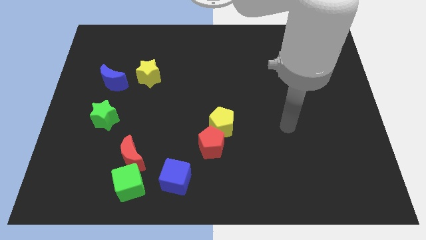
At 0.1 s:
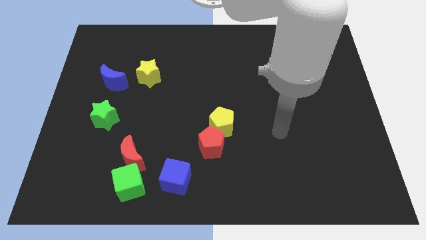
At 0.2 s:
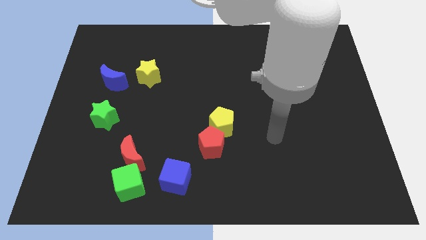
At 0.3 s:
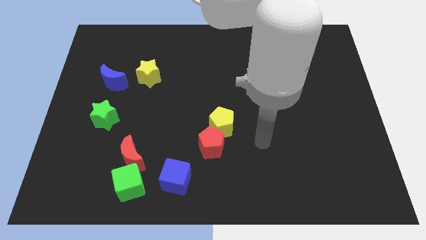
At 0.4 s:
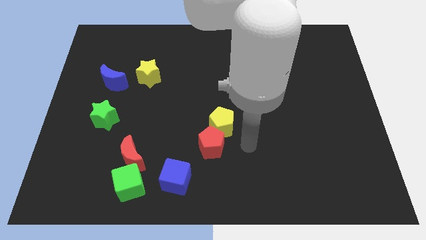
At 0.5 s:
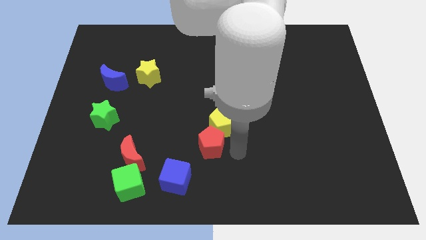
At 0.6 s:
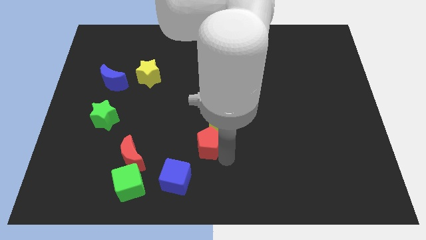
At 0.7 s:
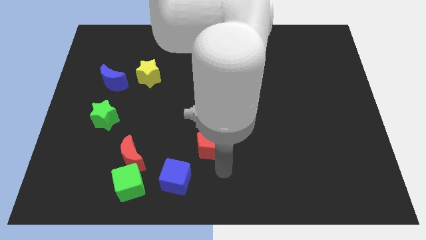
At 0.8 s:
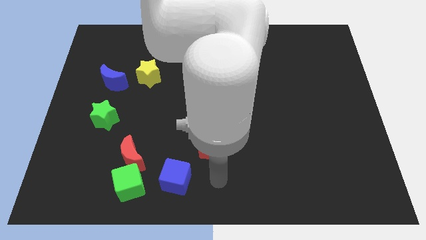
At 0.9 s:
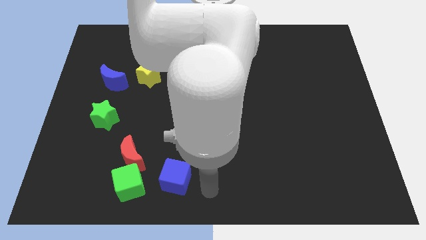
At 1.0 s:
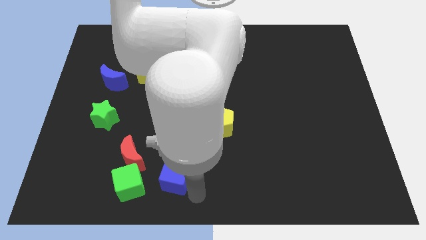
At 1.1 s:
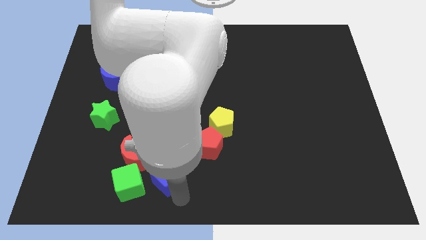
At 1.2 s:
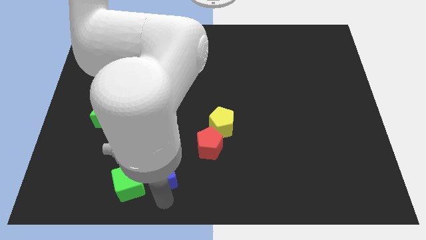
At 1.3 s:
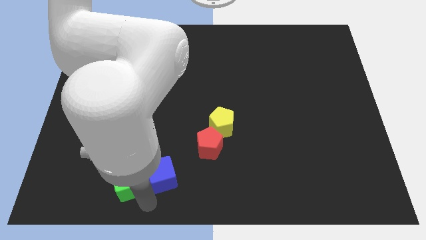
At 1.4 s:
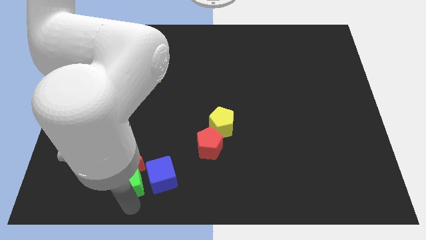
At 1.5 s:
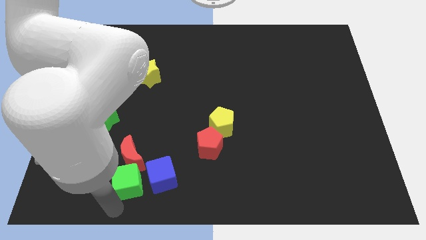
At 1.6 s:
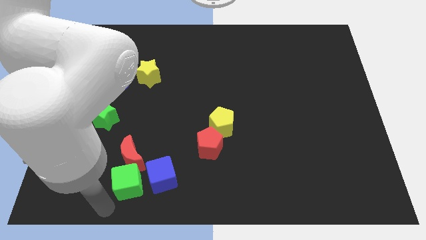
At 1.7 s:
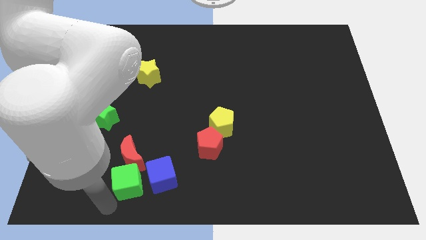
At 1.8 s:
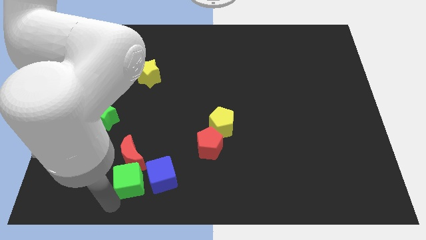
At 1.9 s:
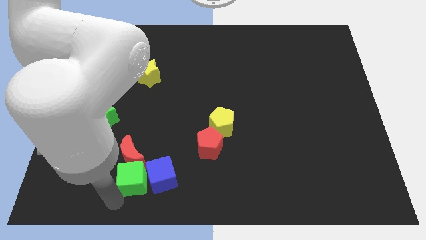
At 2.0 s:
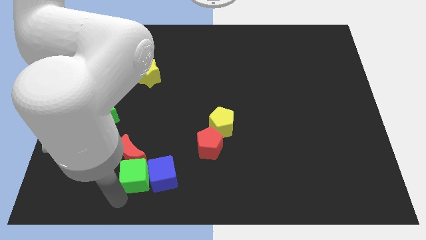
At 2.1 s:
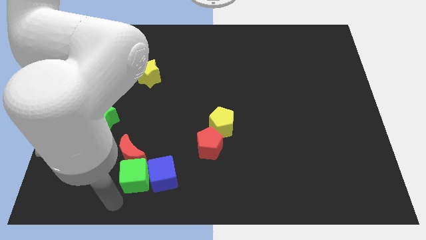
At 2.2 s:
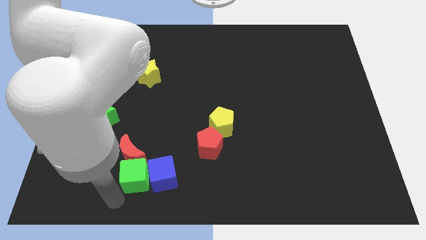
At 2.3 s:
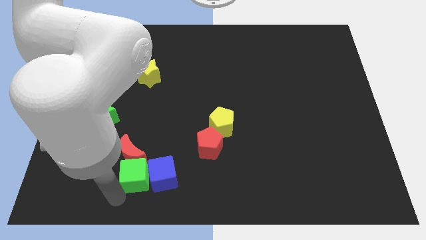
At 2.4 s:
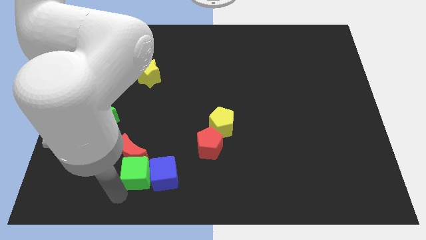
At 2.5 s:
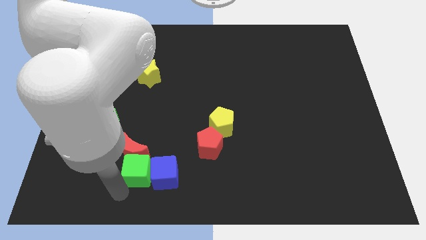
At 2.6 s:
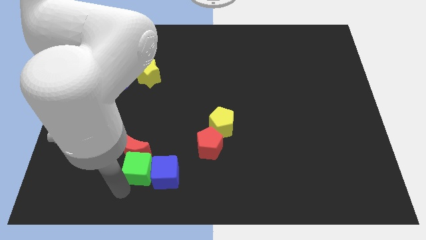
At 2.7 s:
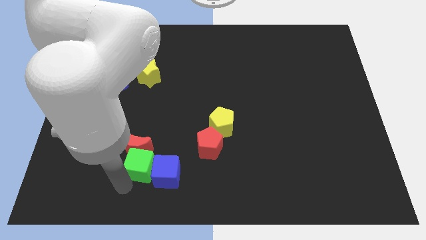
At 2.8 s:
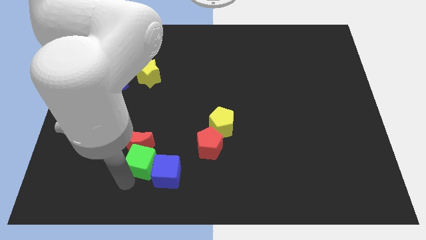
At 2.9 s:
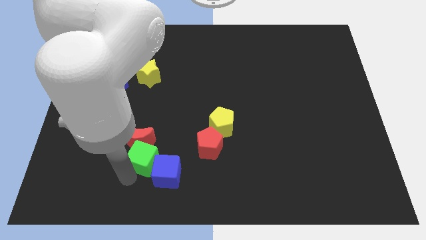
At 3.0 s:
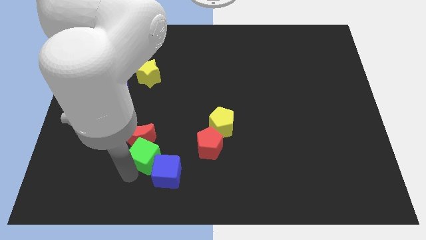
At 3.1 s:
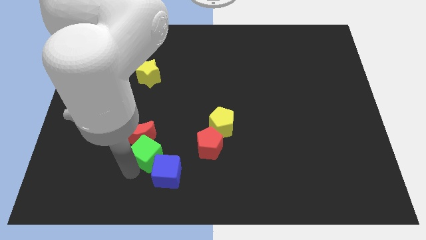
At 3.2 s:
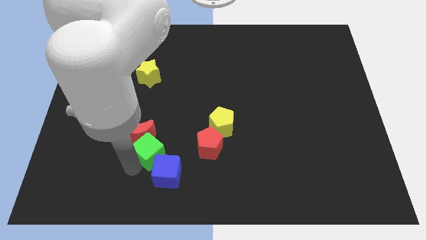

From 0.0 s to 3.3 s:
move the green cube a little bit upwards and right

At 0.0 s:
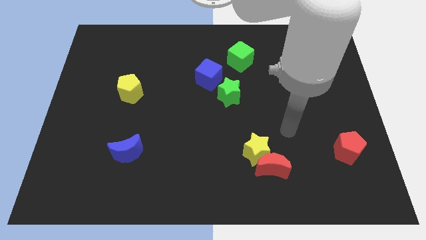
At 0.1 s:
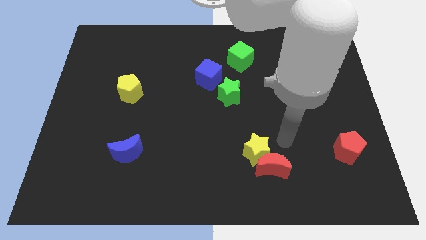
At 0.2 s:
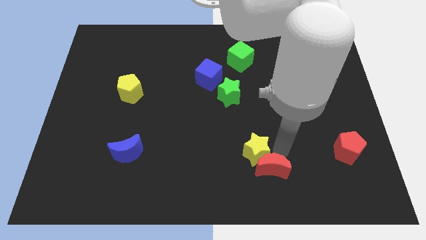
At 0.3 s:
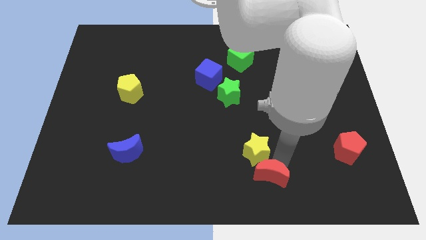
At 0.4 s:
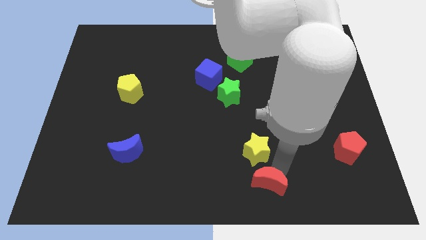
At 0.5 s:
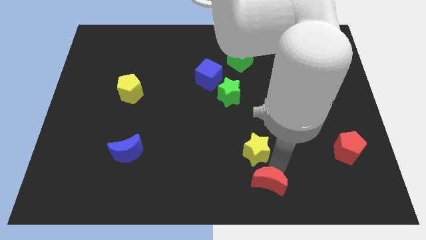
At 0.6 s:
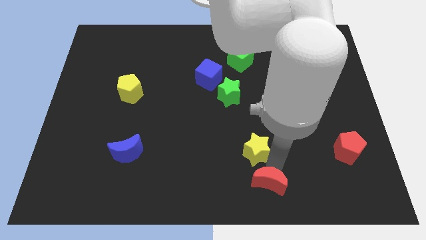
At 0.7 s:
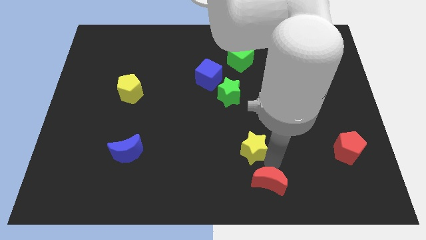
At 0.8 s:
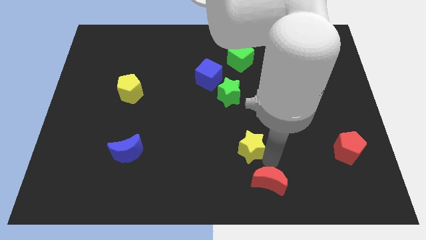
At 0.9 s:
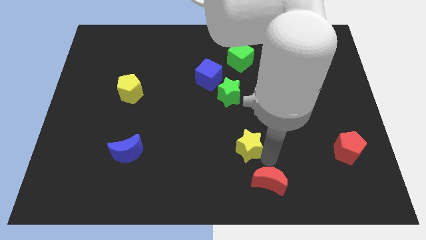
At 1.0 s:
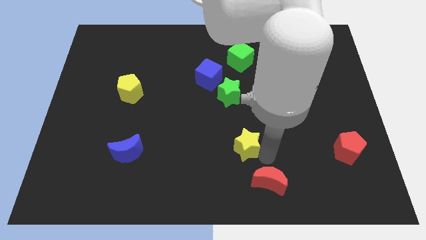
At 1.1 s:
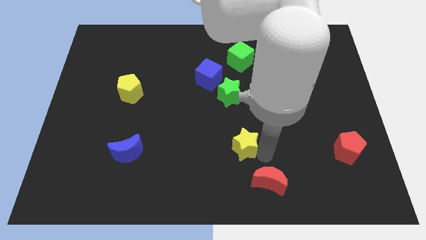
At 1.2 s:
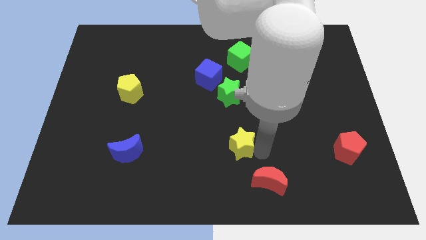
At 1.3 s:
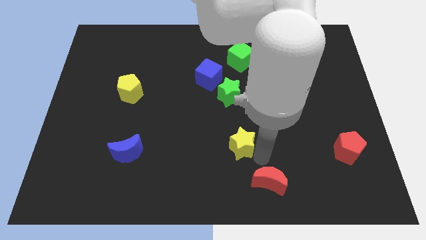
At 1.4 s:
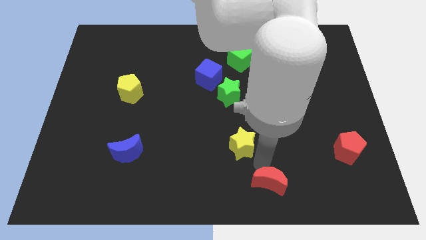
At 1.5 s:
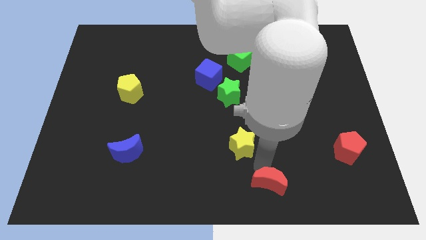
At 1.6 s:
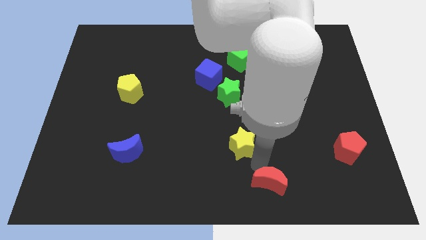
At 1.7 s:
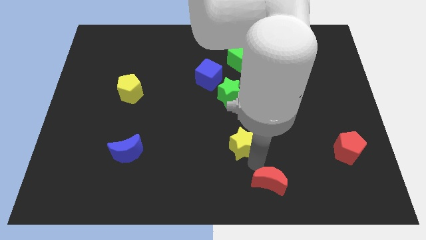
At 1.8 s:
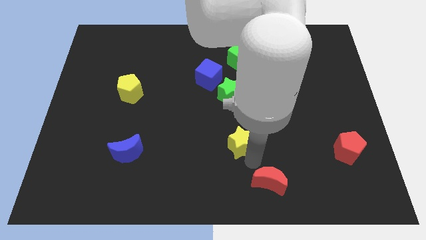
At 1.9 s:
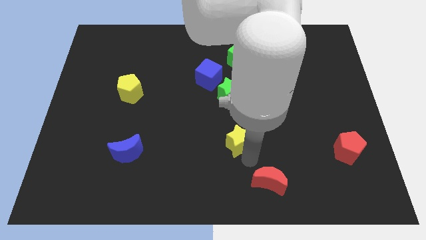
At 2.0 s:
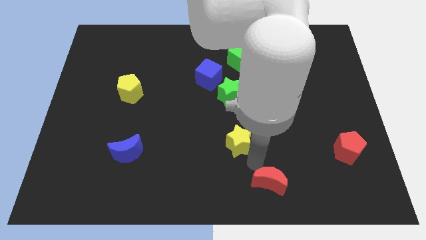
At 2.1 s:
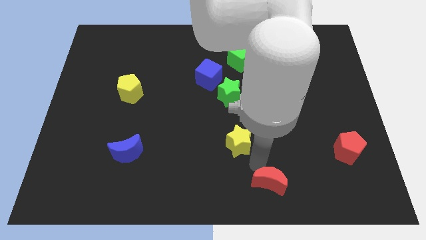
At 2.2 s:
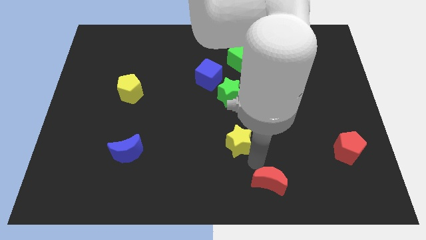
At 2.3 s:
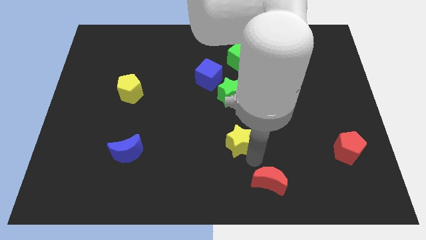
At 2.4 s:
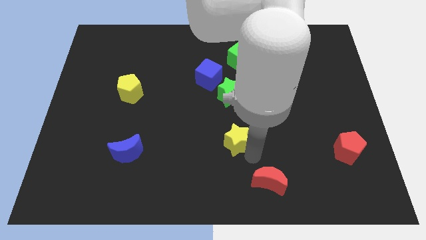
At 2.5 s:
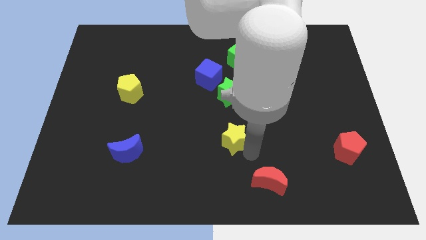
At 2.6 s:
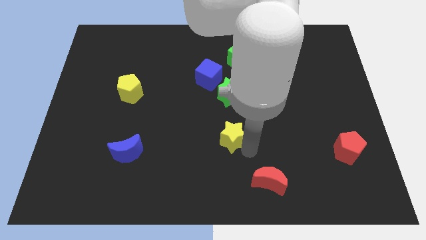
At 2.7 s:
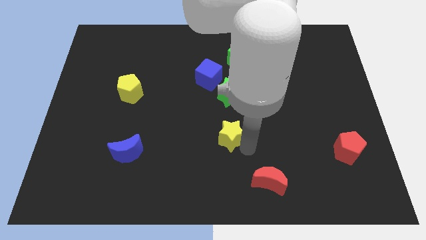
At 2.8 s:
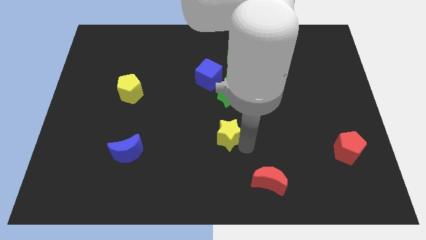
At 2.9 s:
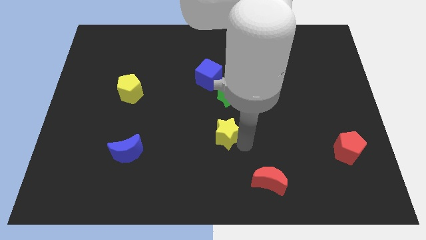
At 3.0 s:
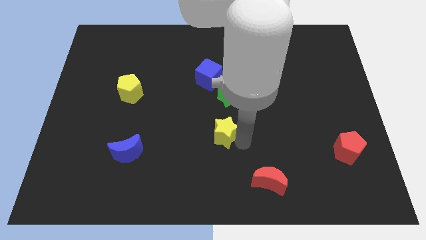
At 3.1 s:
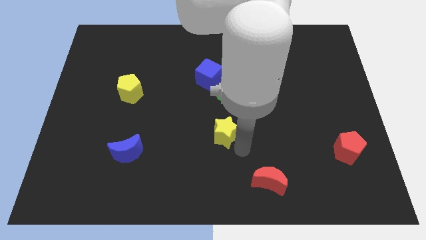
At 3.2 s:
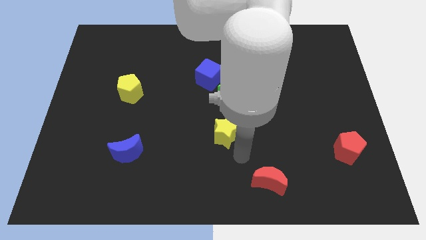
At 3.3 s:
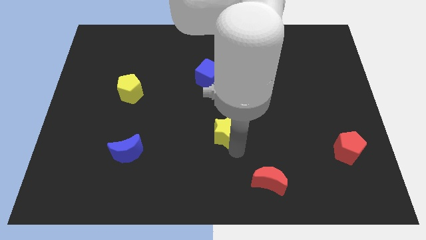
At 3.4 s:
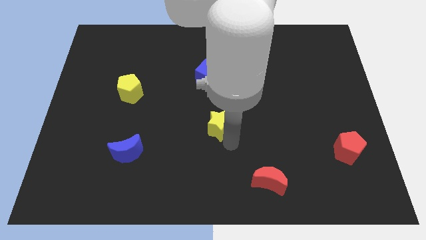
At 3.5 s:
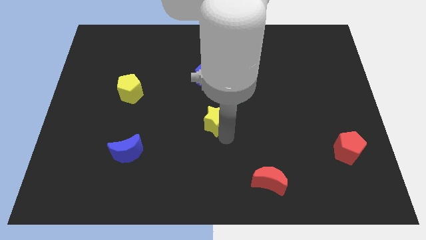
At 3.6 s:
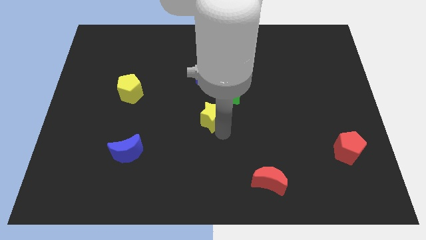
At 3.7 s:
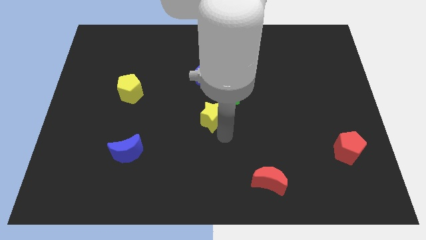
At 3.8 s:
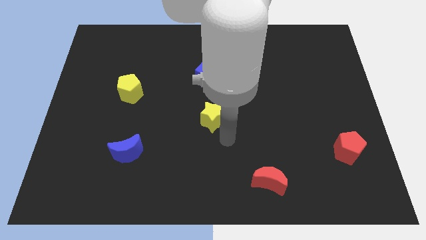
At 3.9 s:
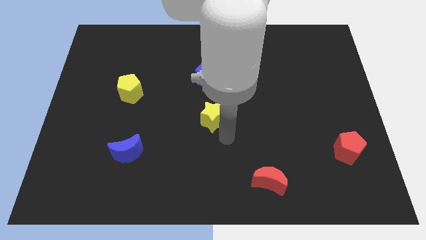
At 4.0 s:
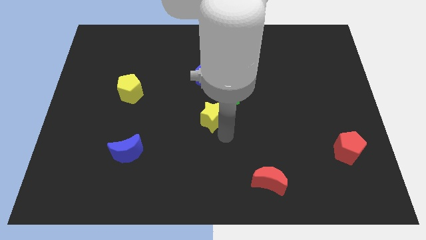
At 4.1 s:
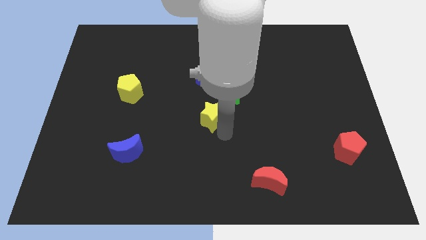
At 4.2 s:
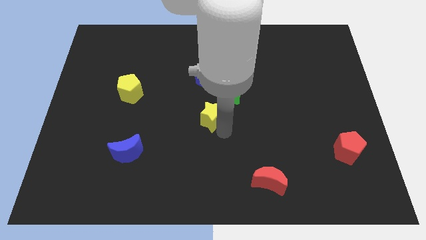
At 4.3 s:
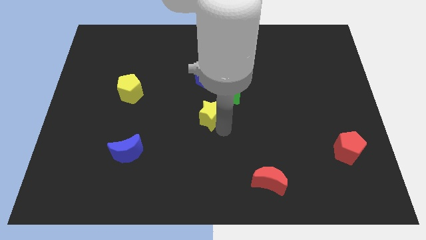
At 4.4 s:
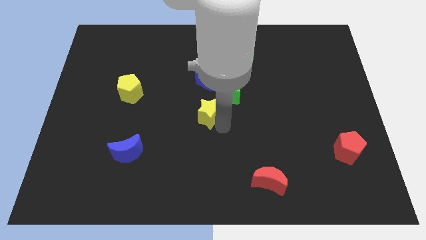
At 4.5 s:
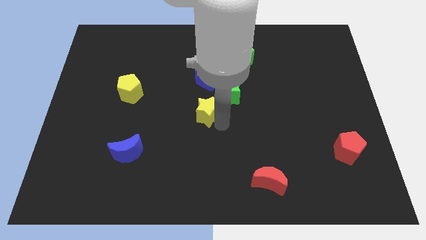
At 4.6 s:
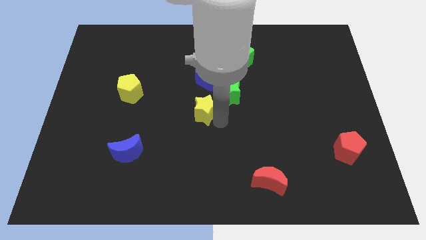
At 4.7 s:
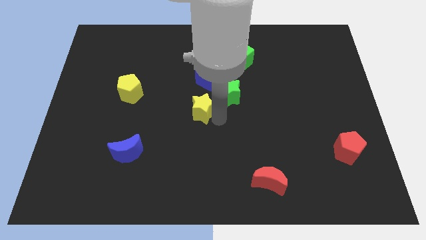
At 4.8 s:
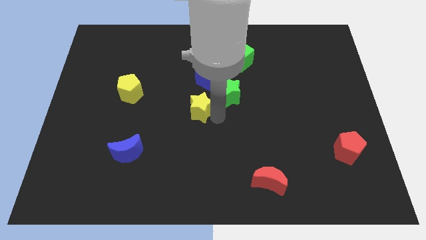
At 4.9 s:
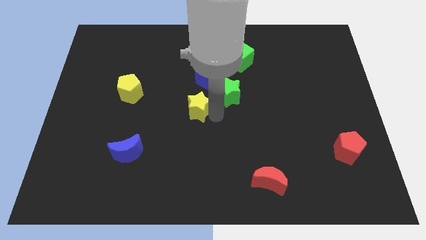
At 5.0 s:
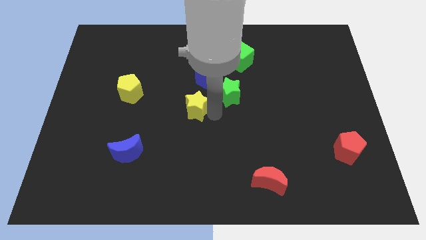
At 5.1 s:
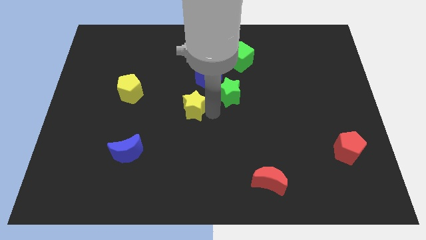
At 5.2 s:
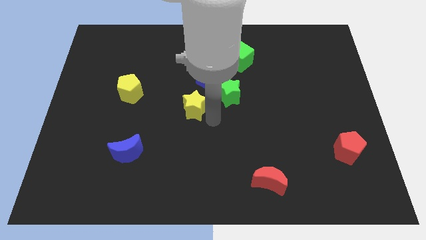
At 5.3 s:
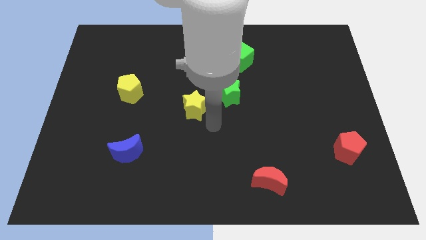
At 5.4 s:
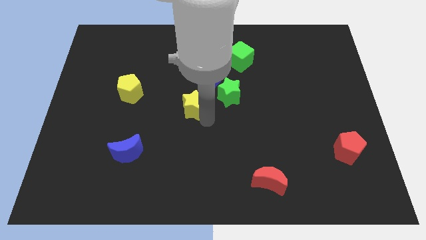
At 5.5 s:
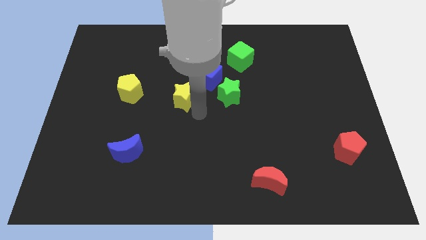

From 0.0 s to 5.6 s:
push the yellow star up and to the left
